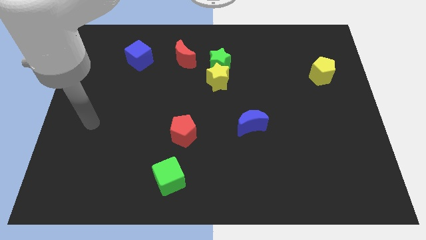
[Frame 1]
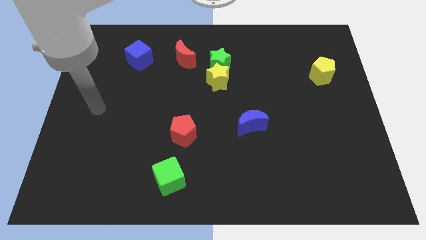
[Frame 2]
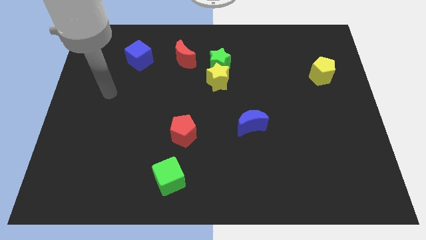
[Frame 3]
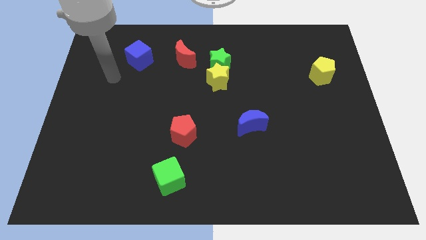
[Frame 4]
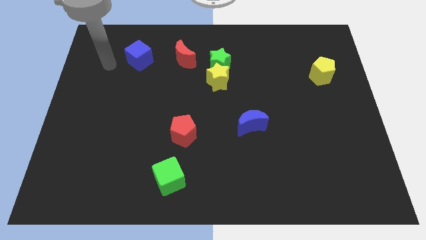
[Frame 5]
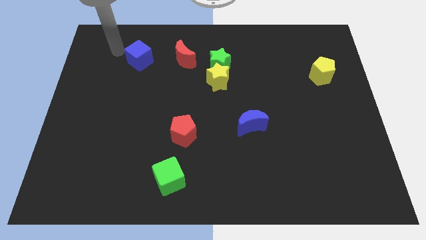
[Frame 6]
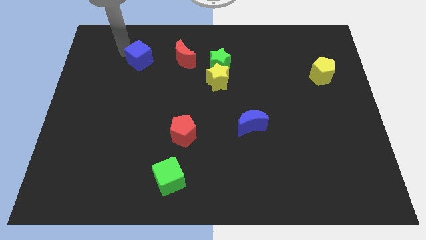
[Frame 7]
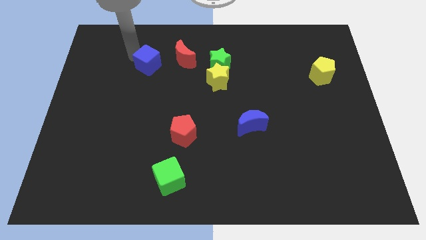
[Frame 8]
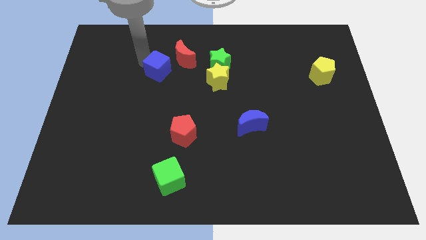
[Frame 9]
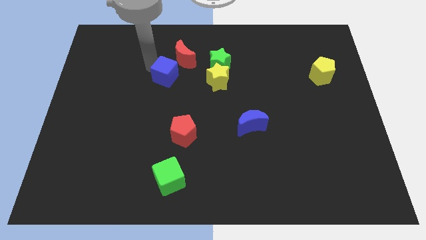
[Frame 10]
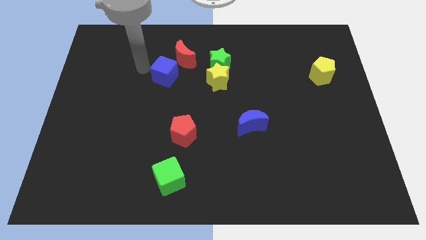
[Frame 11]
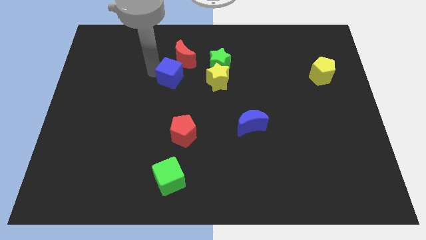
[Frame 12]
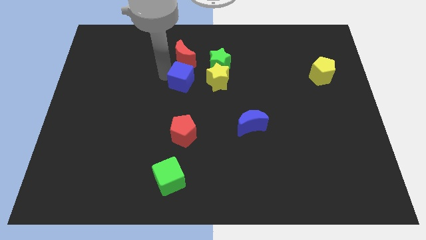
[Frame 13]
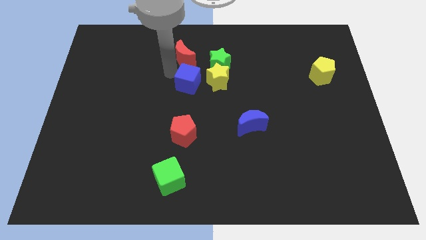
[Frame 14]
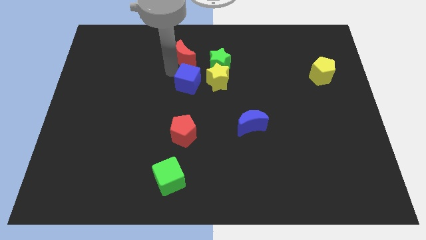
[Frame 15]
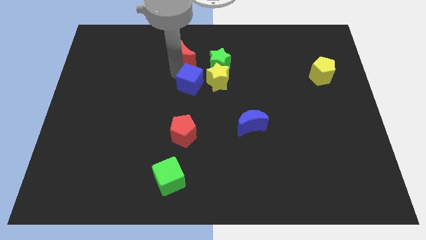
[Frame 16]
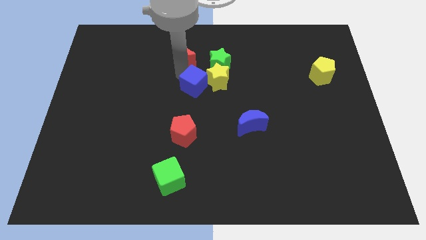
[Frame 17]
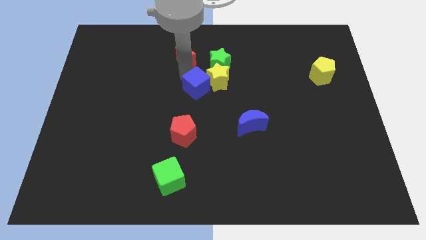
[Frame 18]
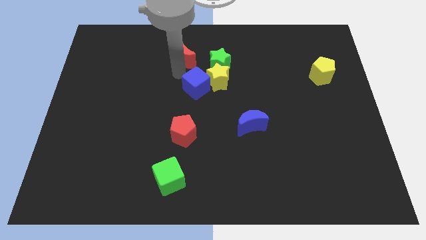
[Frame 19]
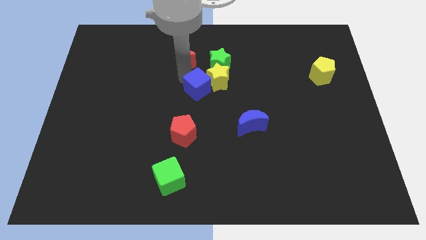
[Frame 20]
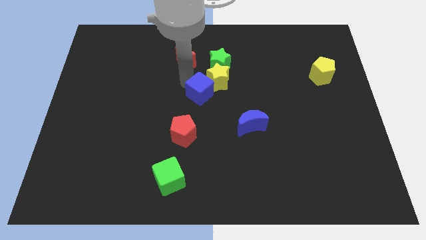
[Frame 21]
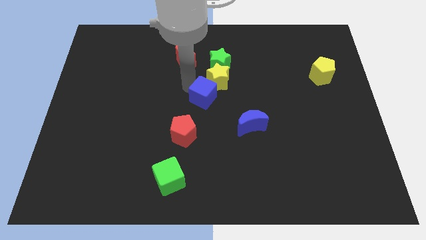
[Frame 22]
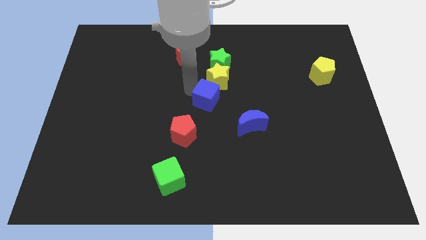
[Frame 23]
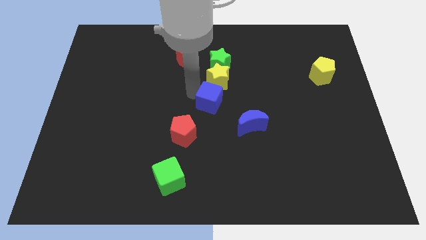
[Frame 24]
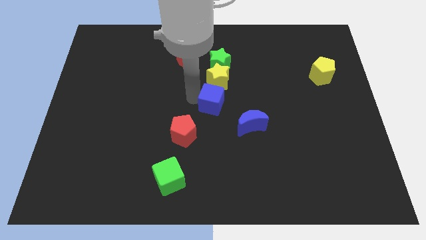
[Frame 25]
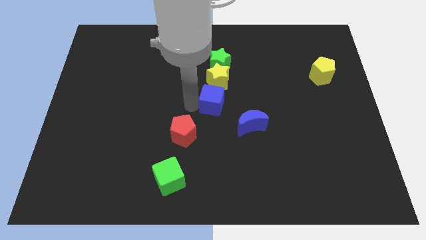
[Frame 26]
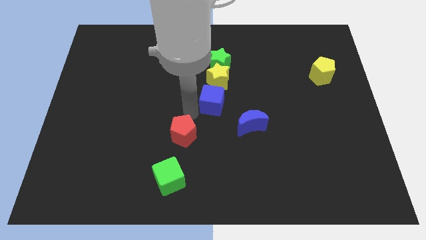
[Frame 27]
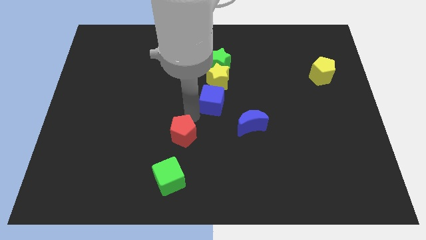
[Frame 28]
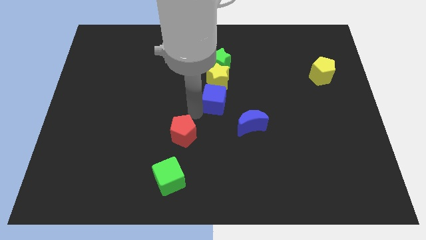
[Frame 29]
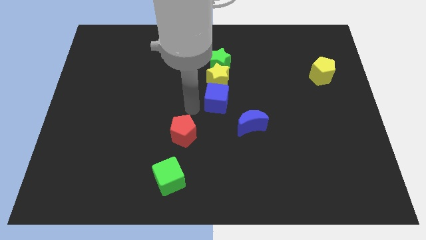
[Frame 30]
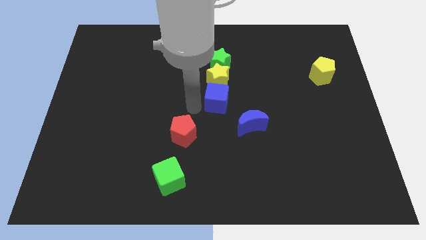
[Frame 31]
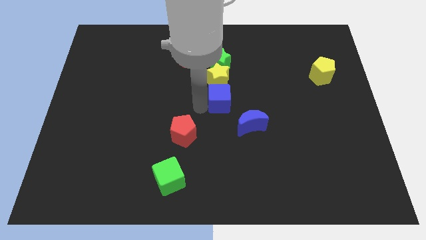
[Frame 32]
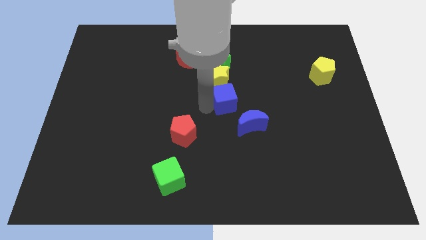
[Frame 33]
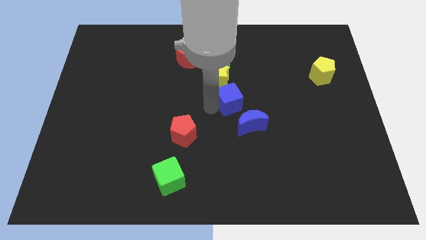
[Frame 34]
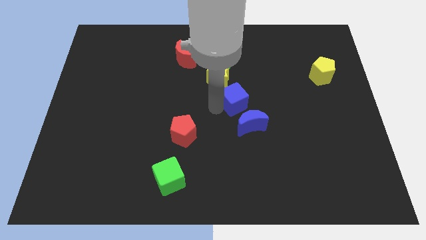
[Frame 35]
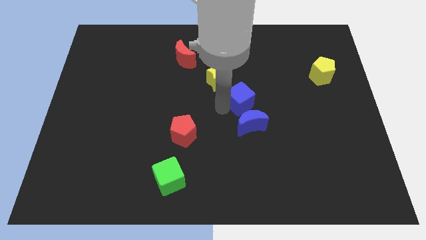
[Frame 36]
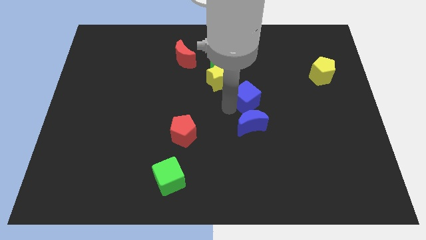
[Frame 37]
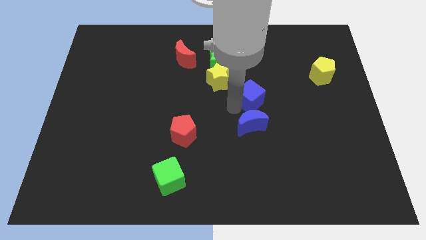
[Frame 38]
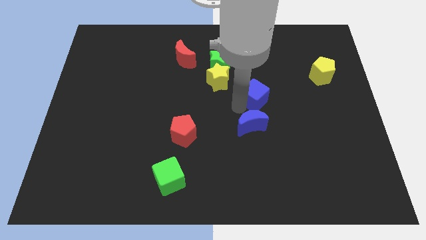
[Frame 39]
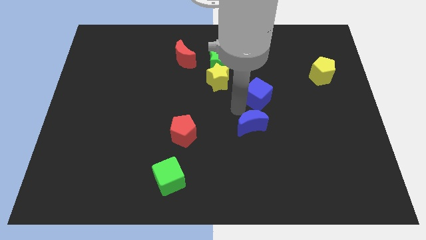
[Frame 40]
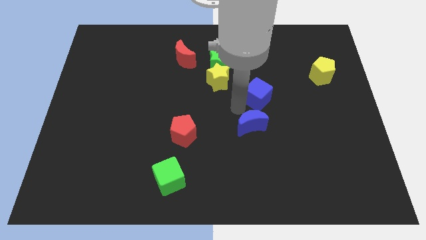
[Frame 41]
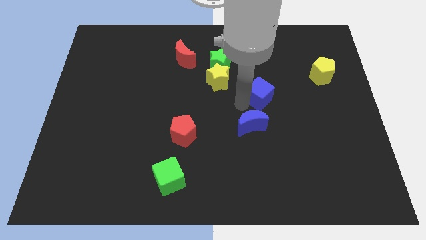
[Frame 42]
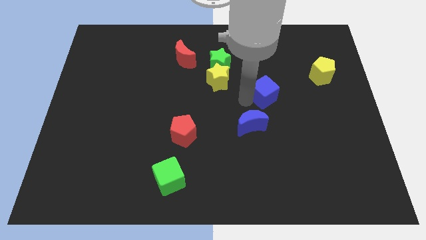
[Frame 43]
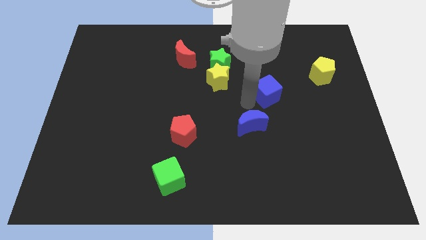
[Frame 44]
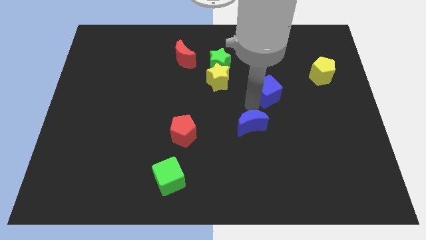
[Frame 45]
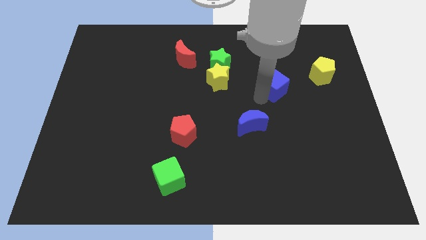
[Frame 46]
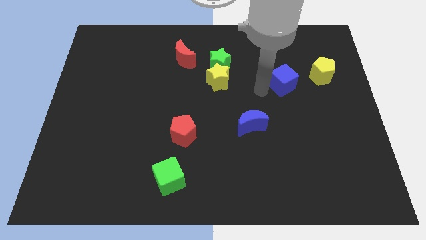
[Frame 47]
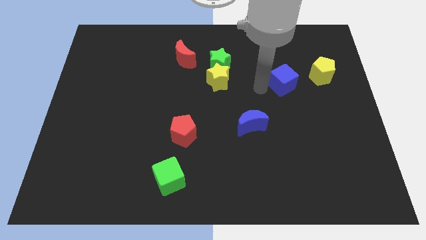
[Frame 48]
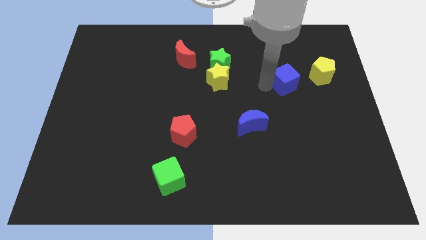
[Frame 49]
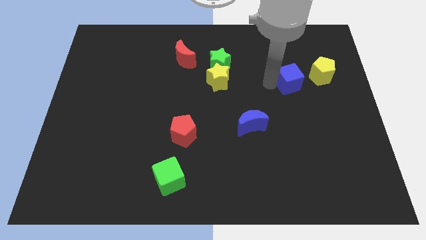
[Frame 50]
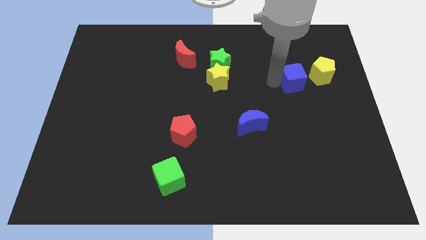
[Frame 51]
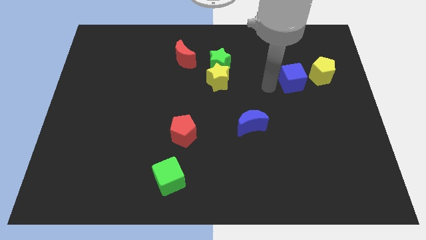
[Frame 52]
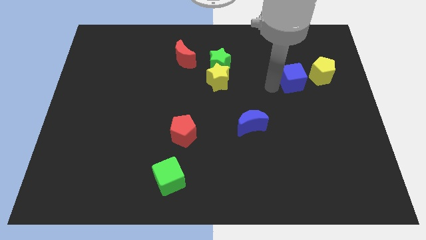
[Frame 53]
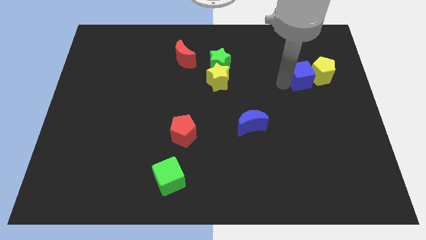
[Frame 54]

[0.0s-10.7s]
move the blue cube towards the yellow pentagon

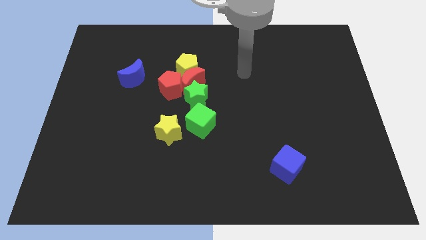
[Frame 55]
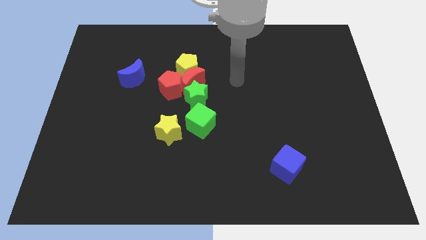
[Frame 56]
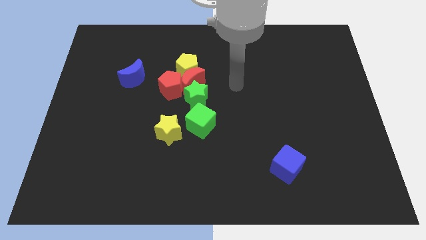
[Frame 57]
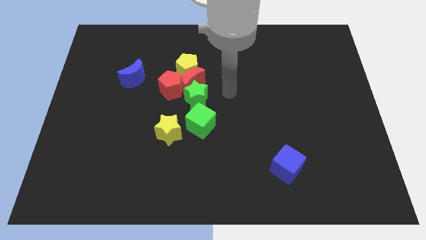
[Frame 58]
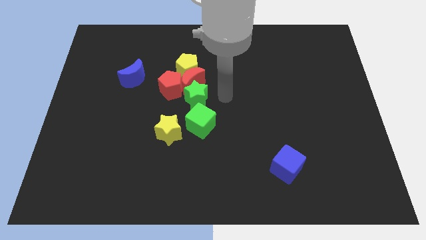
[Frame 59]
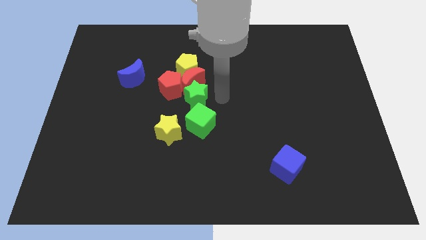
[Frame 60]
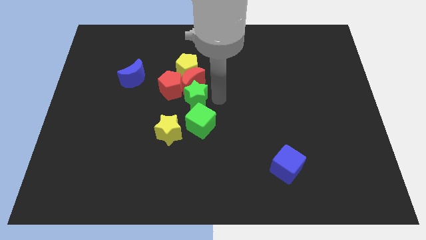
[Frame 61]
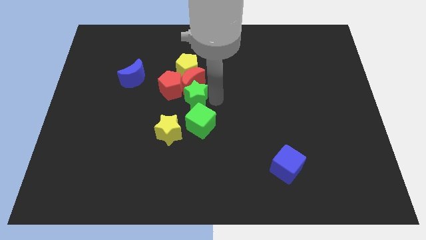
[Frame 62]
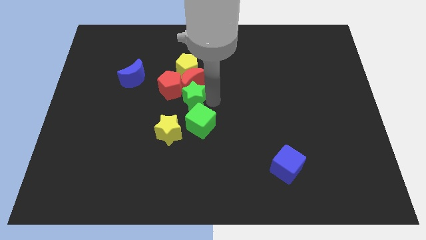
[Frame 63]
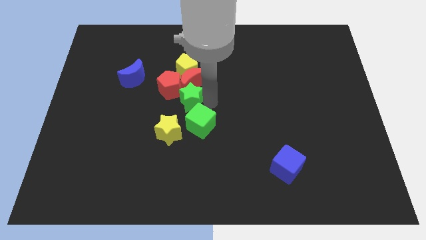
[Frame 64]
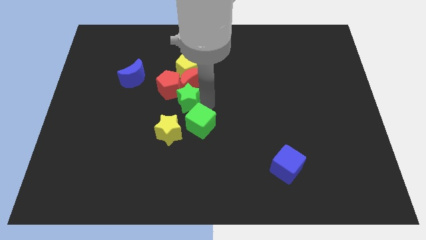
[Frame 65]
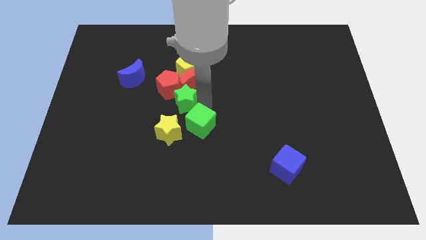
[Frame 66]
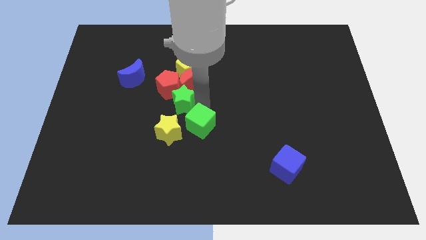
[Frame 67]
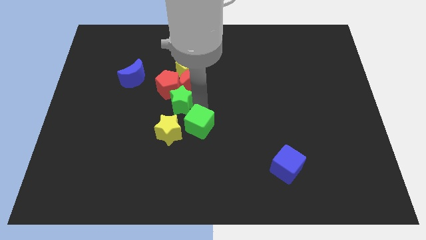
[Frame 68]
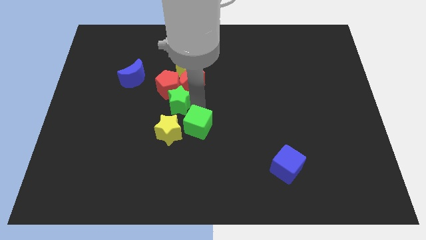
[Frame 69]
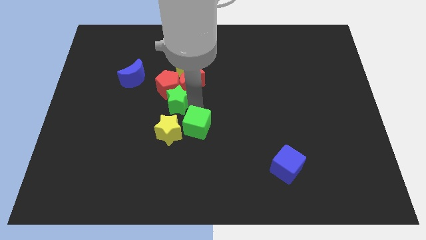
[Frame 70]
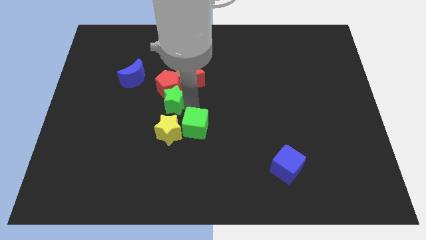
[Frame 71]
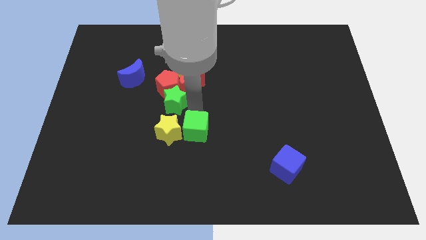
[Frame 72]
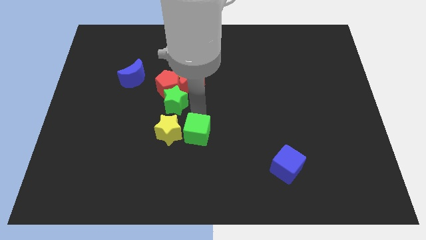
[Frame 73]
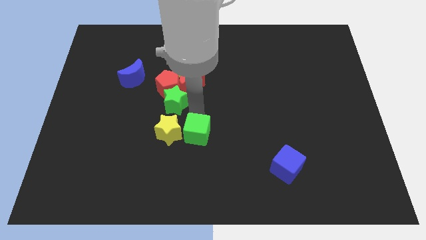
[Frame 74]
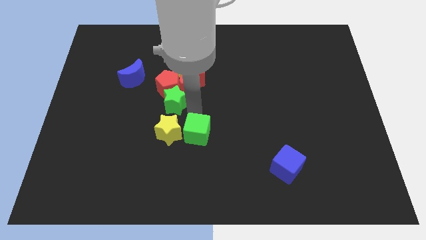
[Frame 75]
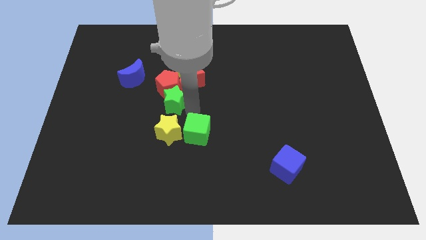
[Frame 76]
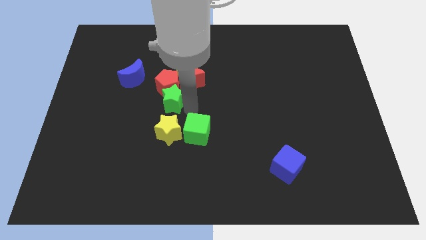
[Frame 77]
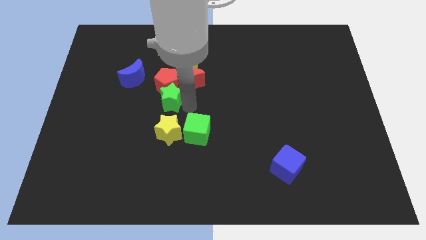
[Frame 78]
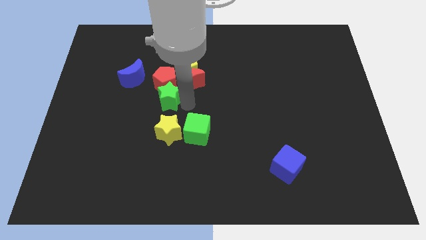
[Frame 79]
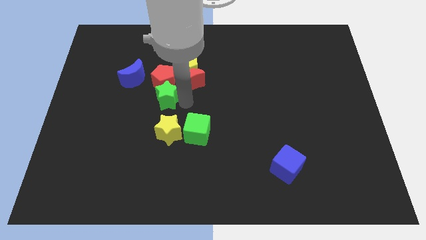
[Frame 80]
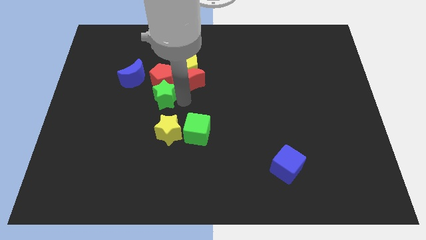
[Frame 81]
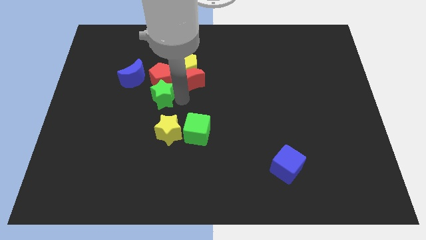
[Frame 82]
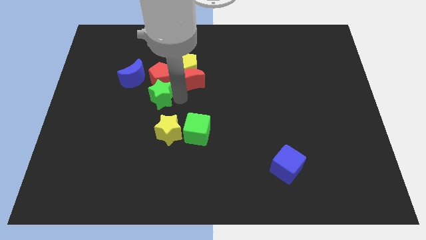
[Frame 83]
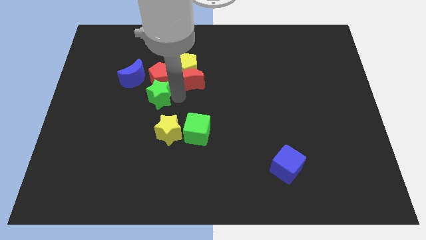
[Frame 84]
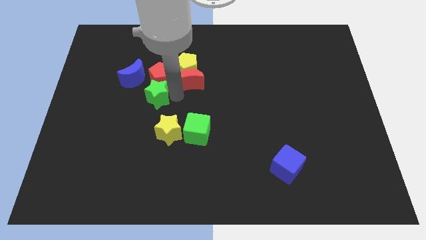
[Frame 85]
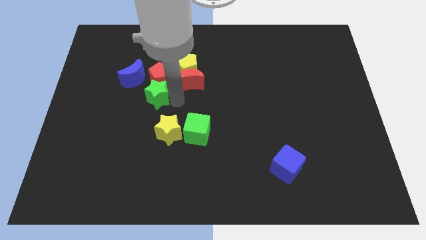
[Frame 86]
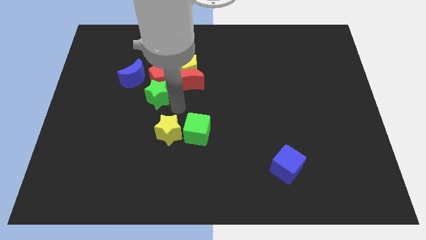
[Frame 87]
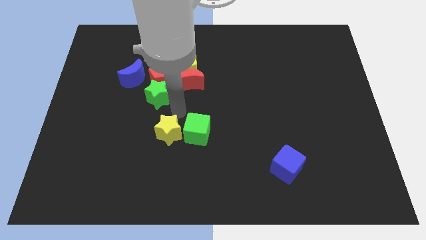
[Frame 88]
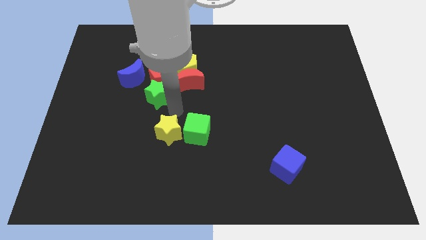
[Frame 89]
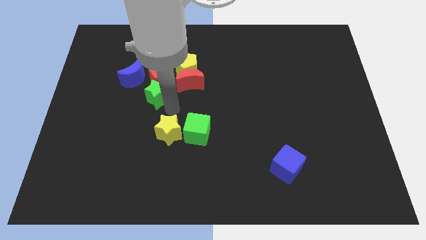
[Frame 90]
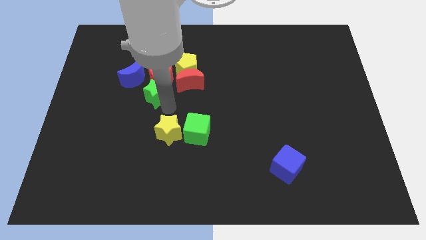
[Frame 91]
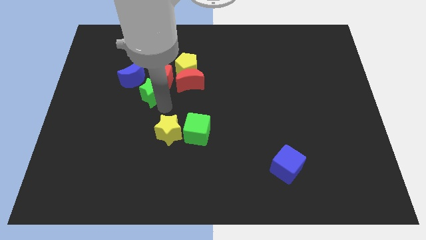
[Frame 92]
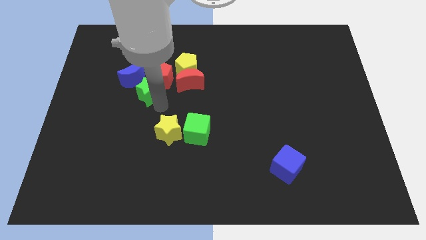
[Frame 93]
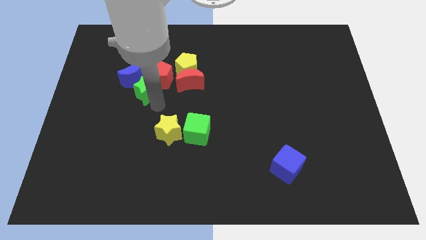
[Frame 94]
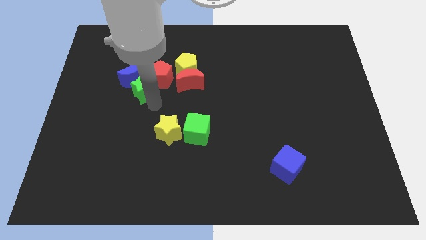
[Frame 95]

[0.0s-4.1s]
slide the green star towards the blue moon
